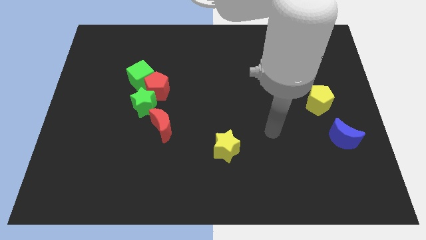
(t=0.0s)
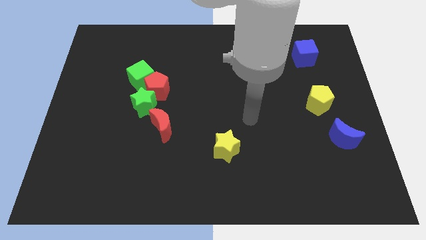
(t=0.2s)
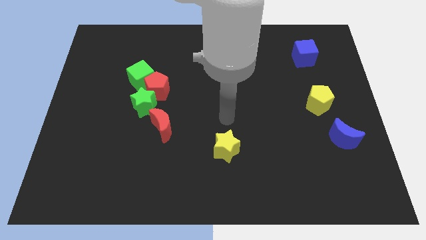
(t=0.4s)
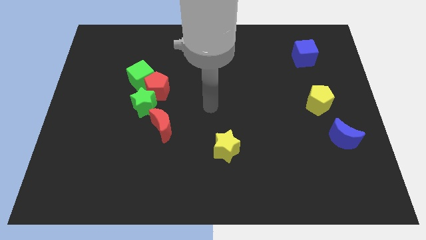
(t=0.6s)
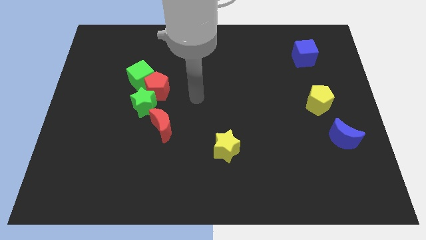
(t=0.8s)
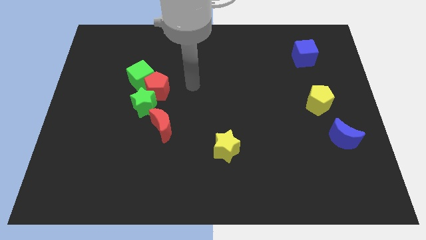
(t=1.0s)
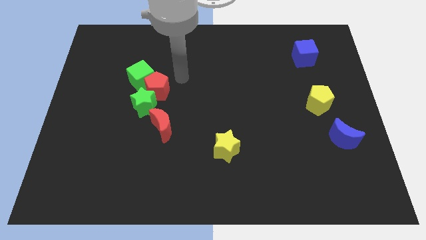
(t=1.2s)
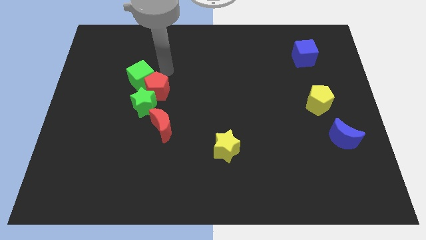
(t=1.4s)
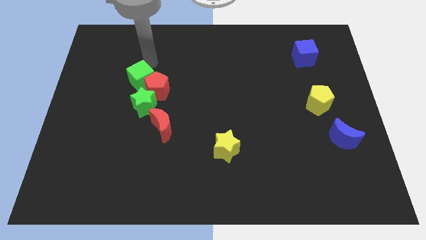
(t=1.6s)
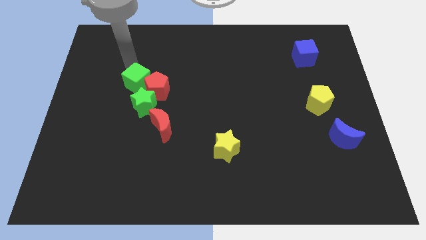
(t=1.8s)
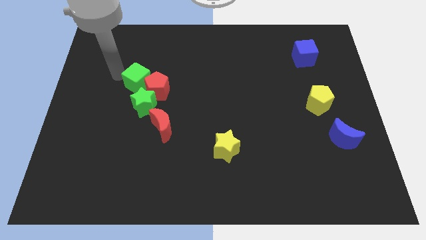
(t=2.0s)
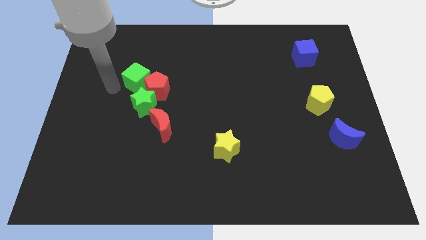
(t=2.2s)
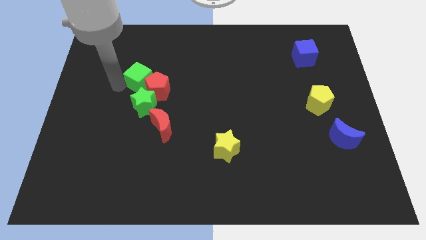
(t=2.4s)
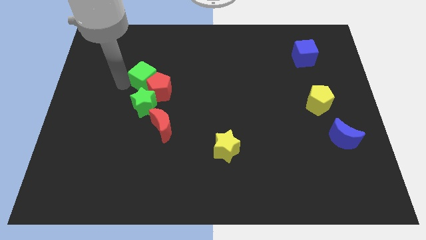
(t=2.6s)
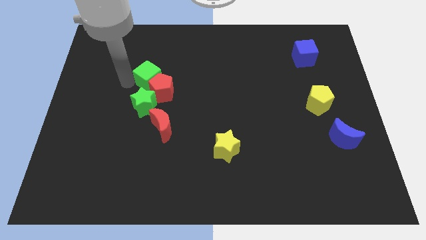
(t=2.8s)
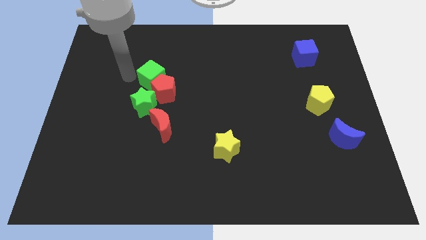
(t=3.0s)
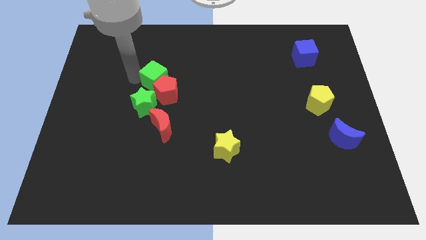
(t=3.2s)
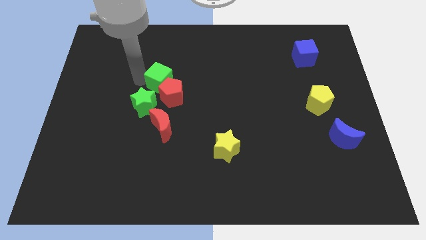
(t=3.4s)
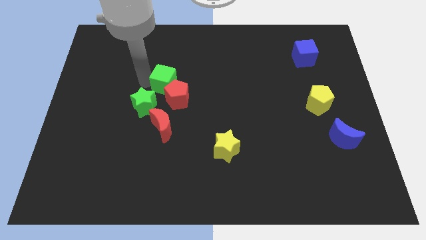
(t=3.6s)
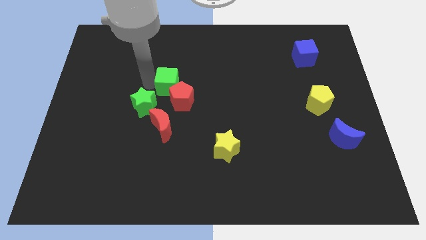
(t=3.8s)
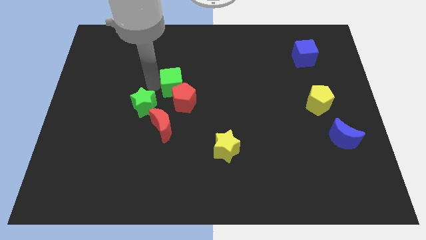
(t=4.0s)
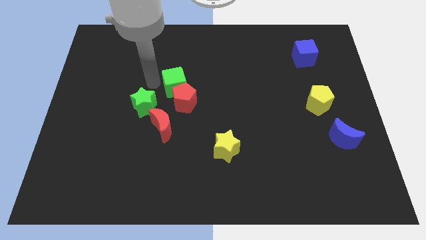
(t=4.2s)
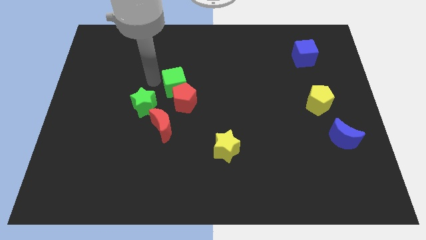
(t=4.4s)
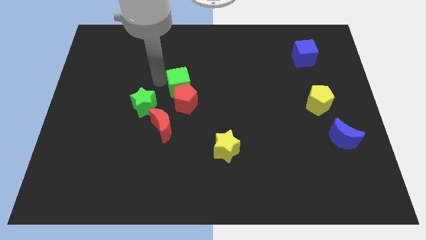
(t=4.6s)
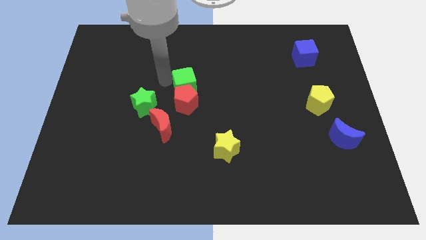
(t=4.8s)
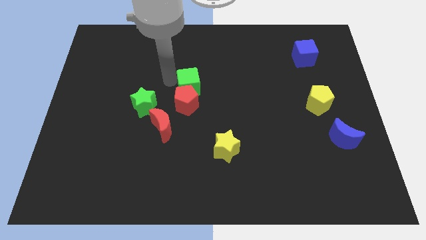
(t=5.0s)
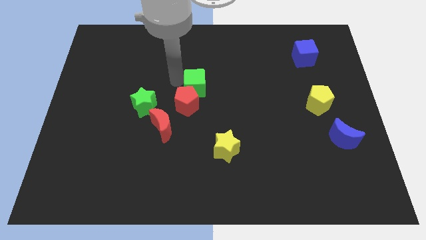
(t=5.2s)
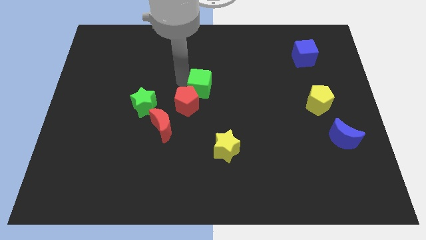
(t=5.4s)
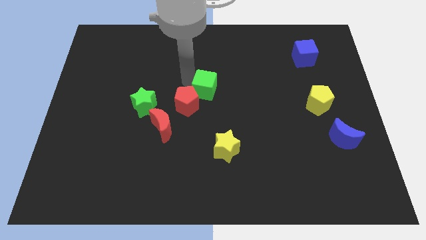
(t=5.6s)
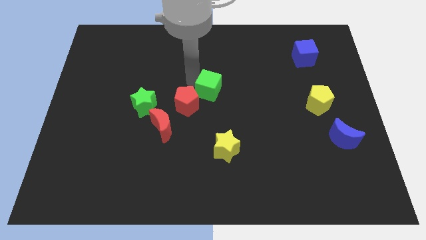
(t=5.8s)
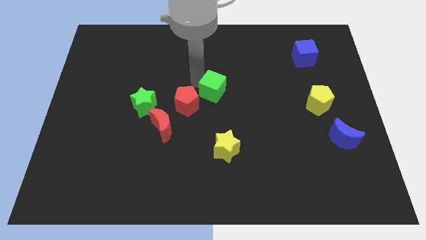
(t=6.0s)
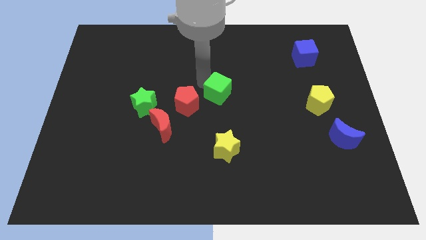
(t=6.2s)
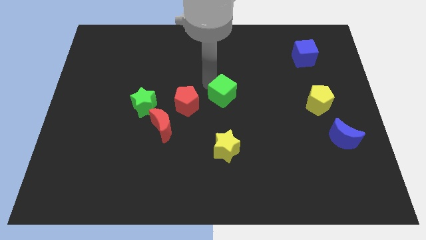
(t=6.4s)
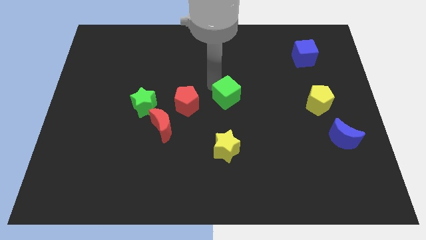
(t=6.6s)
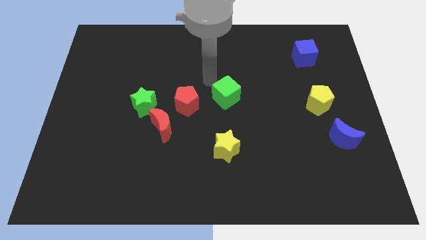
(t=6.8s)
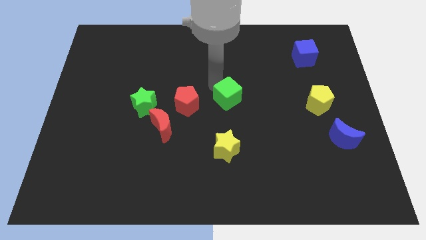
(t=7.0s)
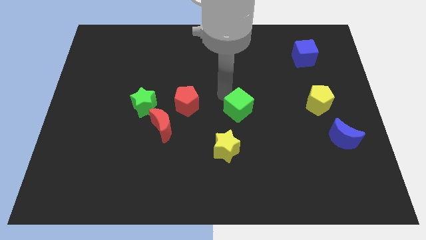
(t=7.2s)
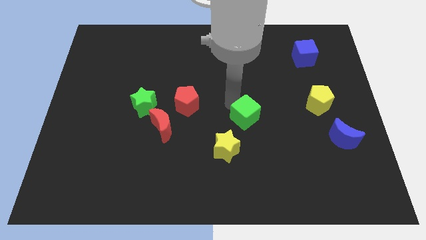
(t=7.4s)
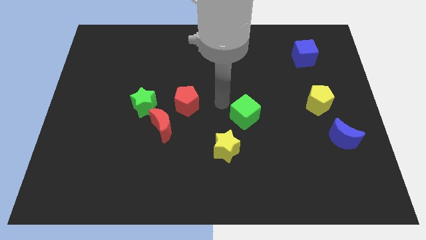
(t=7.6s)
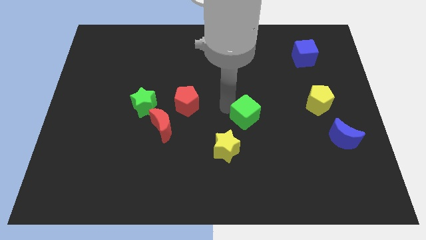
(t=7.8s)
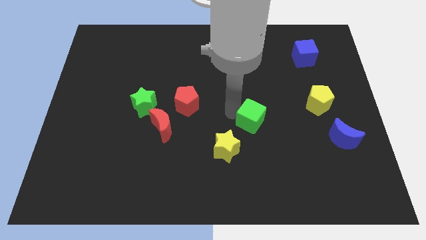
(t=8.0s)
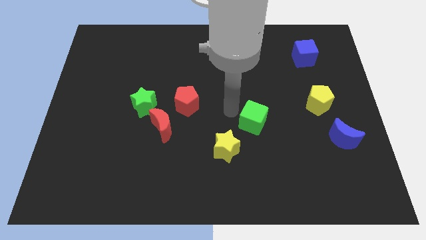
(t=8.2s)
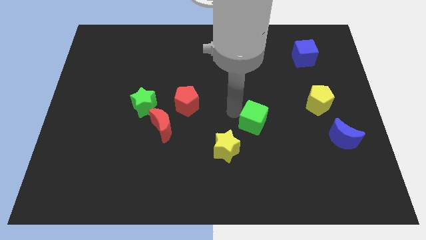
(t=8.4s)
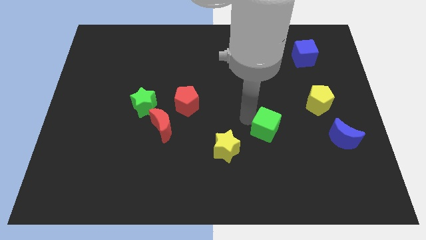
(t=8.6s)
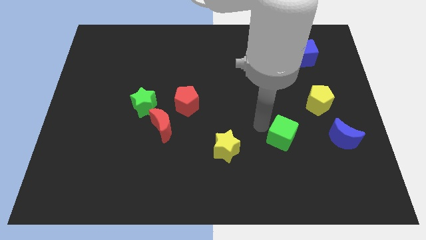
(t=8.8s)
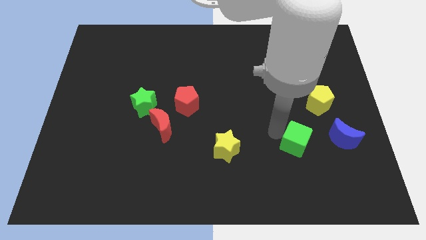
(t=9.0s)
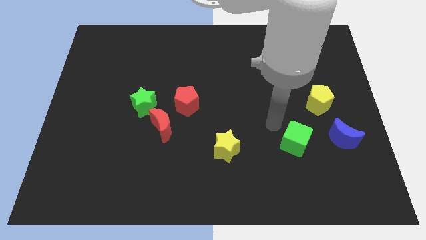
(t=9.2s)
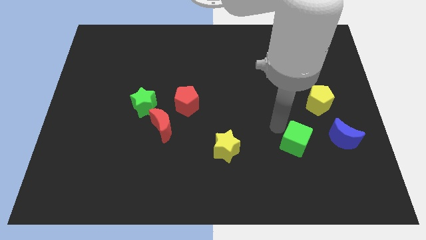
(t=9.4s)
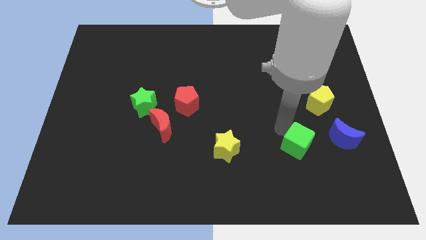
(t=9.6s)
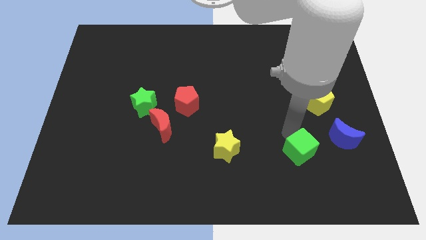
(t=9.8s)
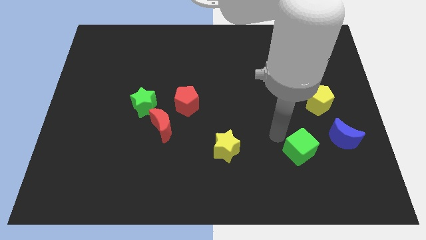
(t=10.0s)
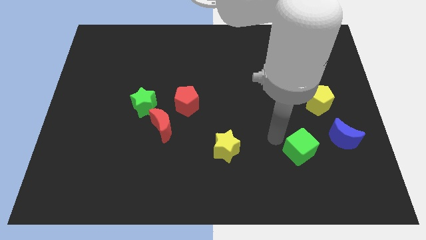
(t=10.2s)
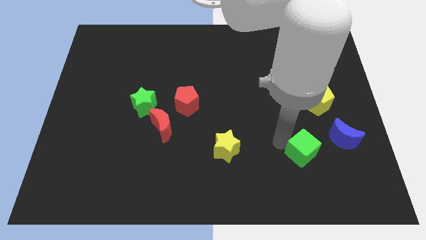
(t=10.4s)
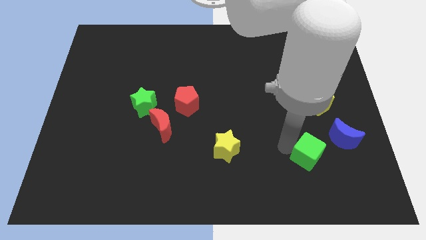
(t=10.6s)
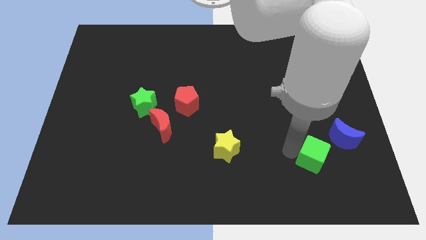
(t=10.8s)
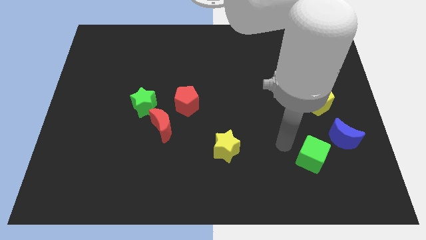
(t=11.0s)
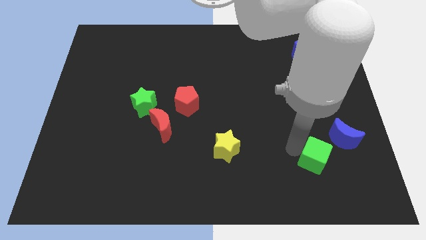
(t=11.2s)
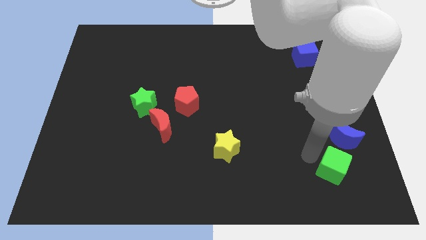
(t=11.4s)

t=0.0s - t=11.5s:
move the green cube to the bottom side of the blue moon

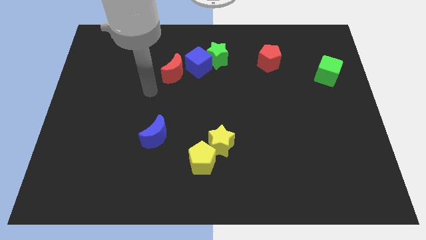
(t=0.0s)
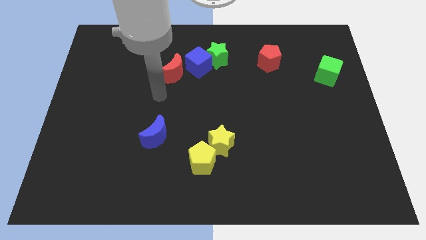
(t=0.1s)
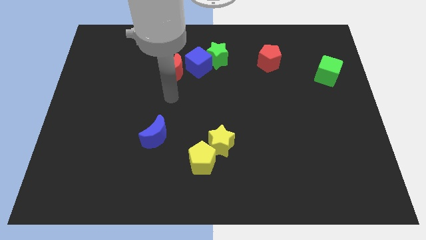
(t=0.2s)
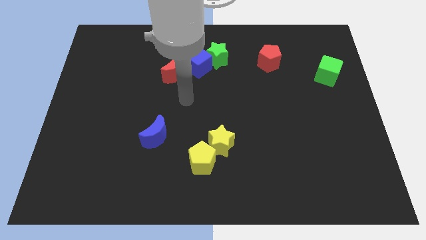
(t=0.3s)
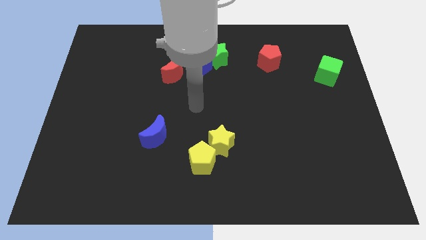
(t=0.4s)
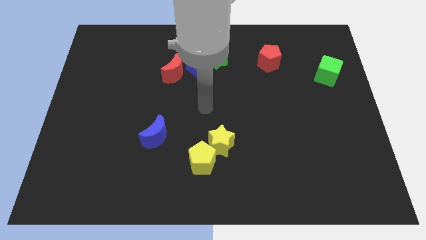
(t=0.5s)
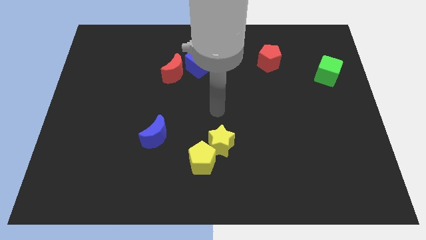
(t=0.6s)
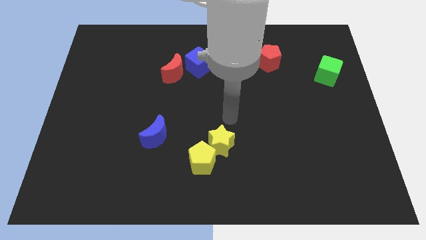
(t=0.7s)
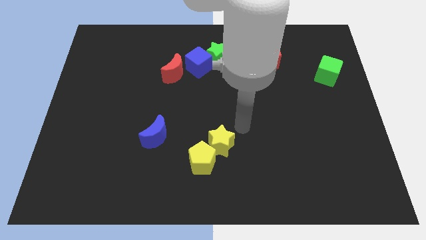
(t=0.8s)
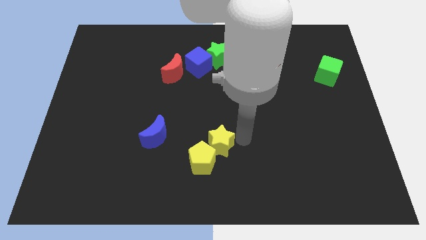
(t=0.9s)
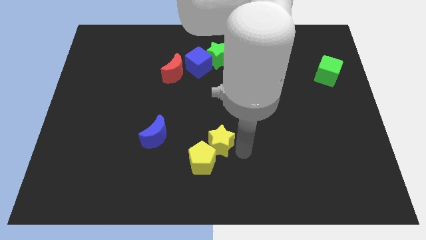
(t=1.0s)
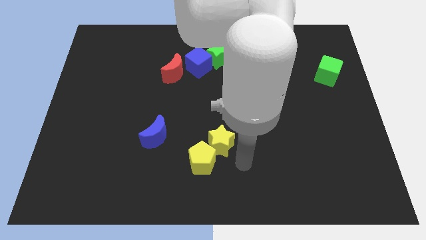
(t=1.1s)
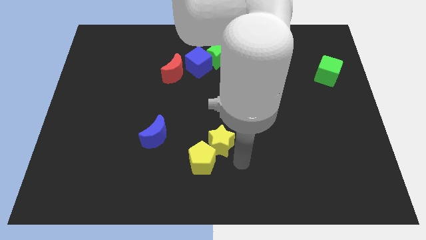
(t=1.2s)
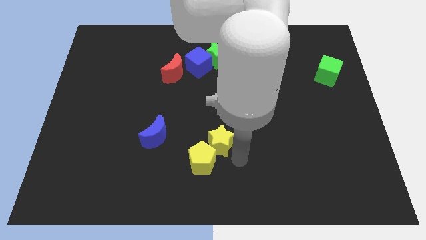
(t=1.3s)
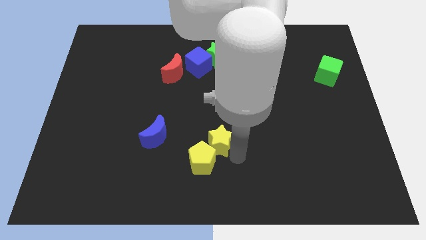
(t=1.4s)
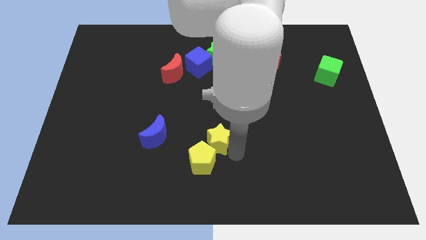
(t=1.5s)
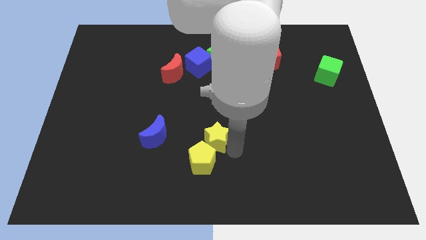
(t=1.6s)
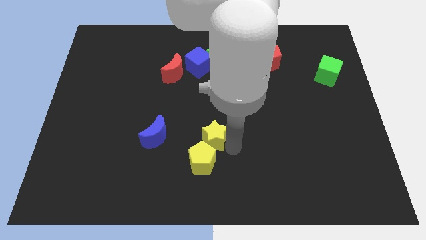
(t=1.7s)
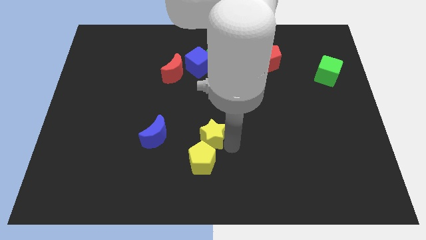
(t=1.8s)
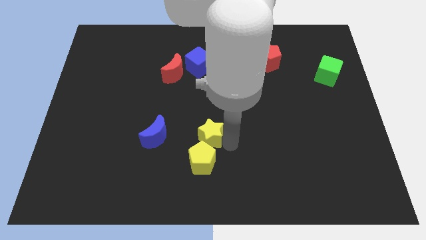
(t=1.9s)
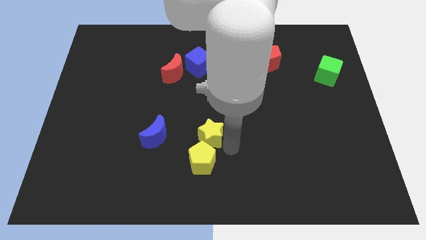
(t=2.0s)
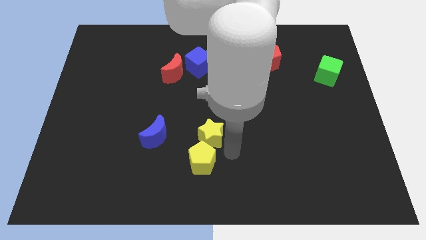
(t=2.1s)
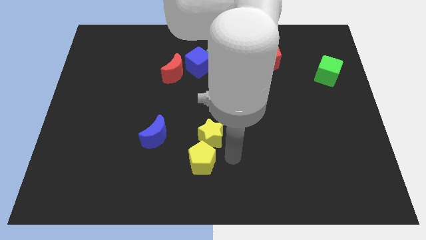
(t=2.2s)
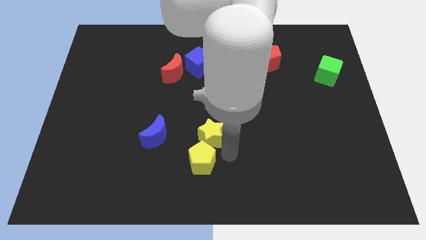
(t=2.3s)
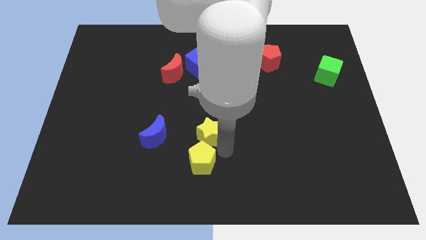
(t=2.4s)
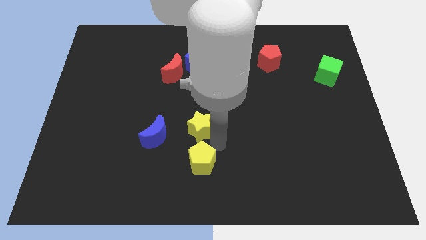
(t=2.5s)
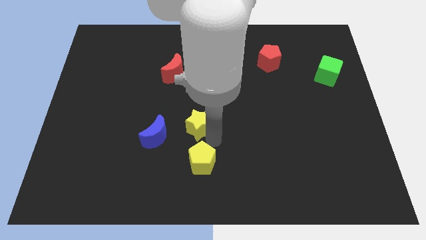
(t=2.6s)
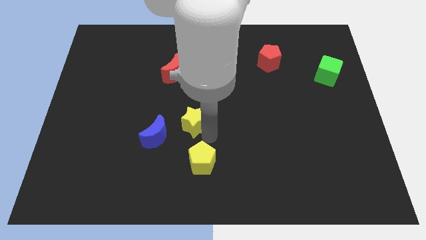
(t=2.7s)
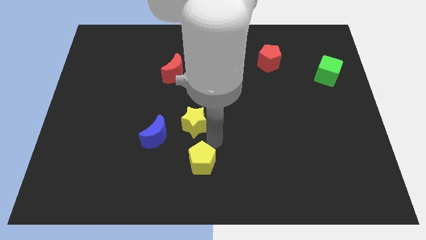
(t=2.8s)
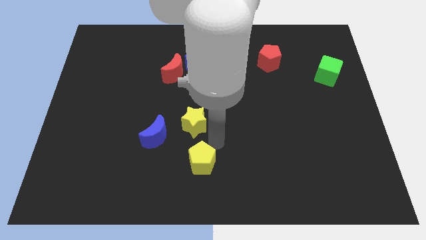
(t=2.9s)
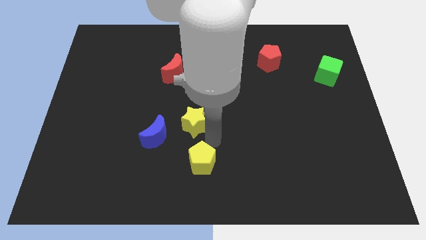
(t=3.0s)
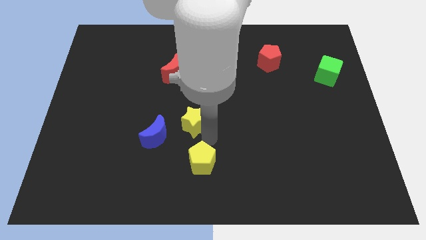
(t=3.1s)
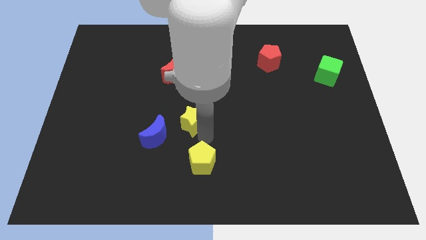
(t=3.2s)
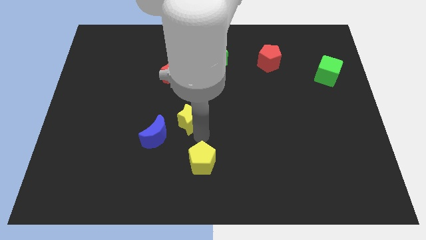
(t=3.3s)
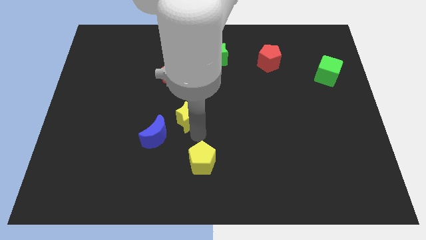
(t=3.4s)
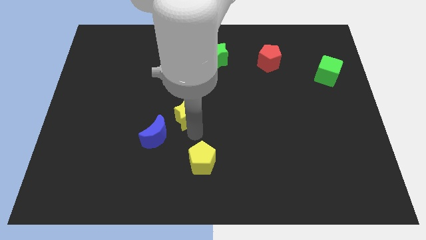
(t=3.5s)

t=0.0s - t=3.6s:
slide the yellow star to the bottom of the red moon
